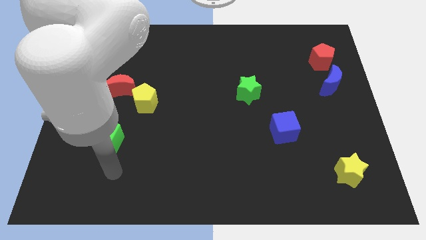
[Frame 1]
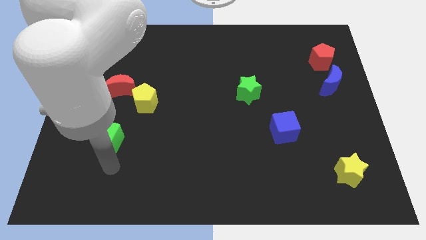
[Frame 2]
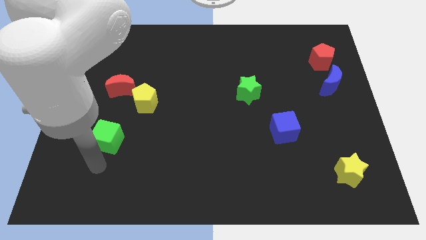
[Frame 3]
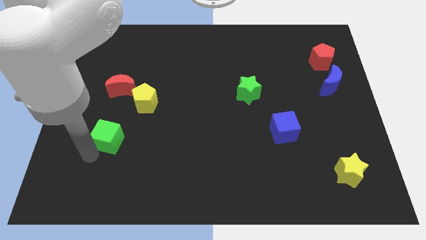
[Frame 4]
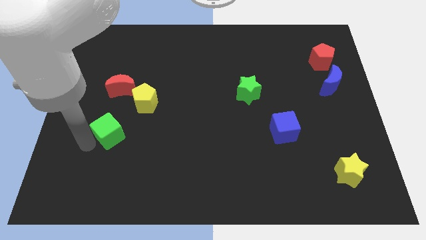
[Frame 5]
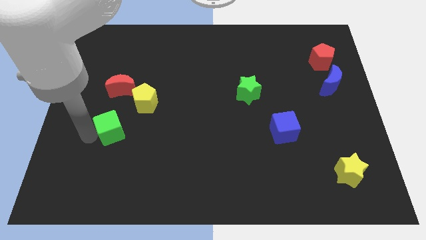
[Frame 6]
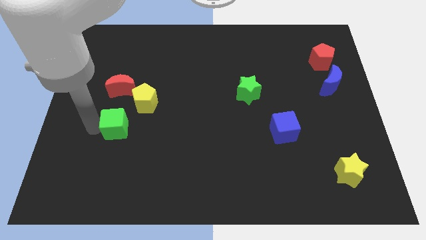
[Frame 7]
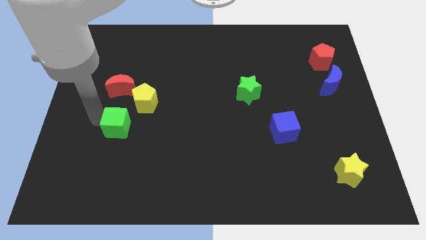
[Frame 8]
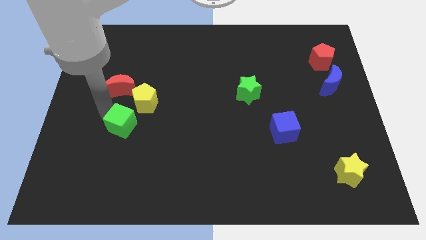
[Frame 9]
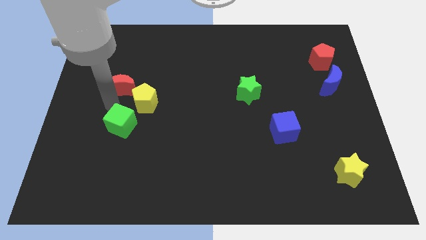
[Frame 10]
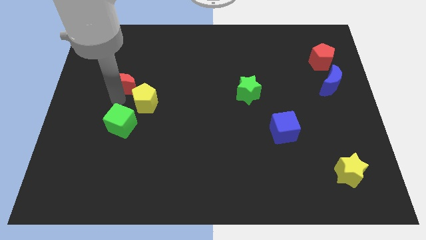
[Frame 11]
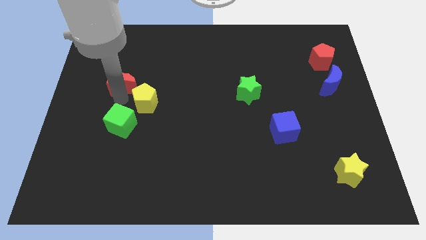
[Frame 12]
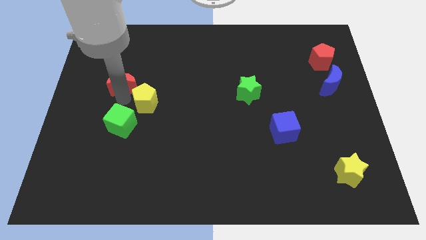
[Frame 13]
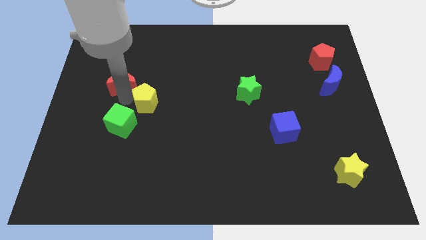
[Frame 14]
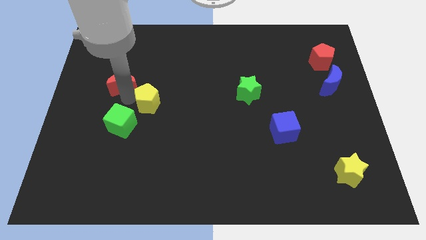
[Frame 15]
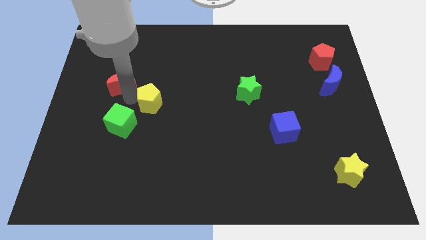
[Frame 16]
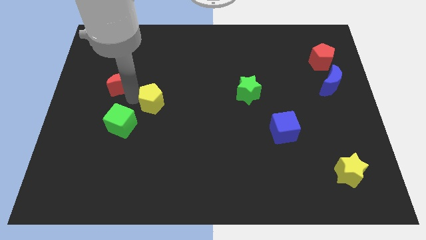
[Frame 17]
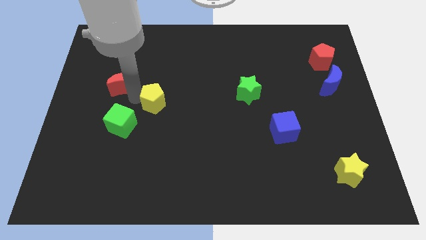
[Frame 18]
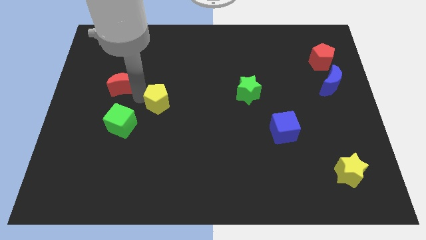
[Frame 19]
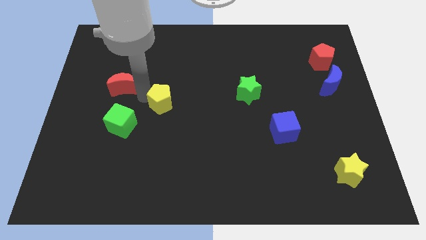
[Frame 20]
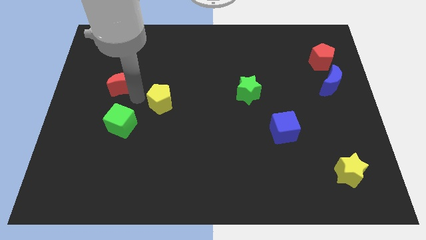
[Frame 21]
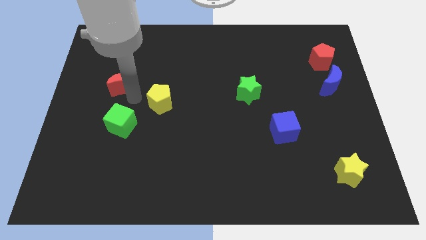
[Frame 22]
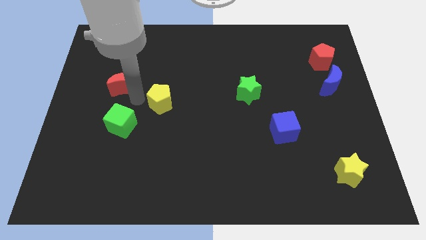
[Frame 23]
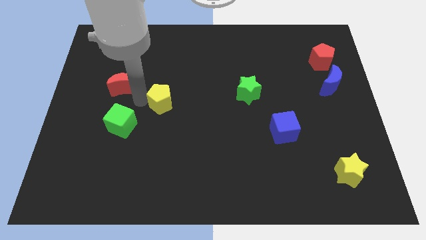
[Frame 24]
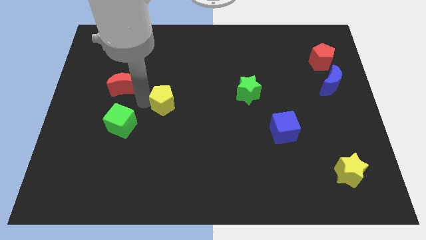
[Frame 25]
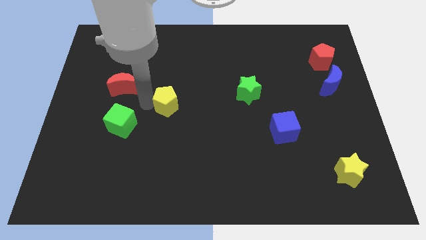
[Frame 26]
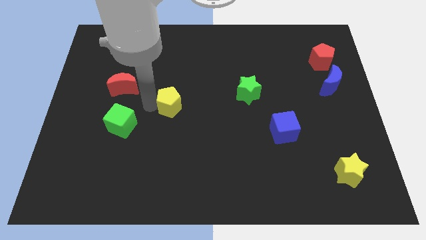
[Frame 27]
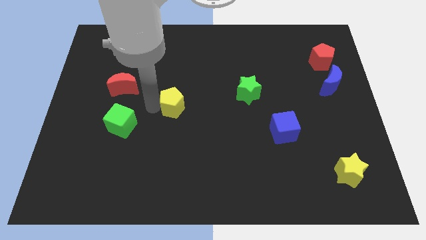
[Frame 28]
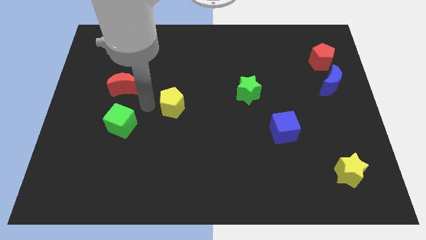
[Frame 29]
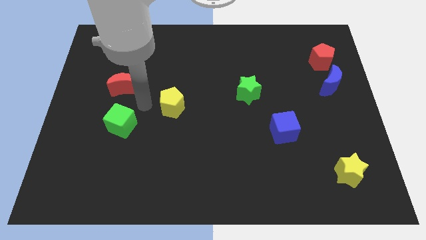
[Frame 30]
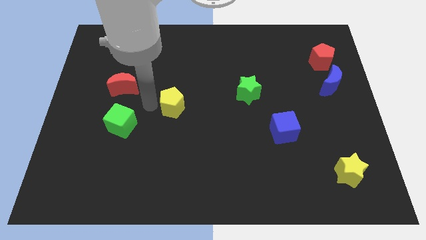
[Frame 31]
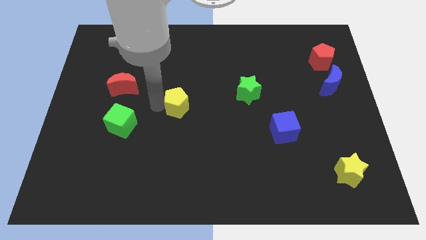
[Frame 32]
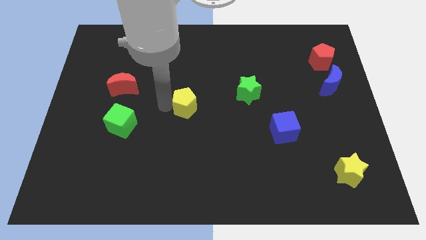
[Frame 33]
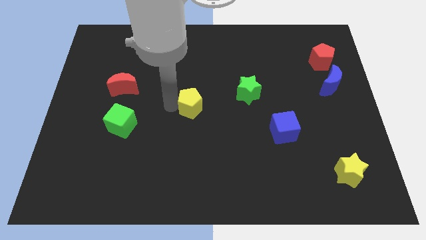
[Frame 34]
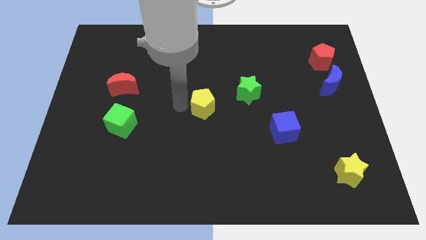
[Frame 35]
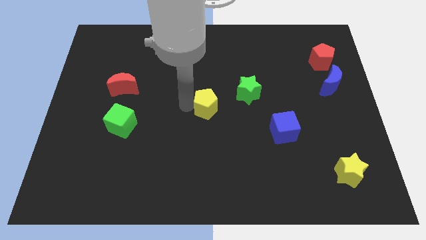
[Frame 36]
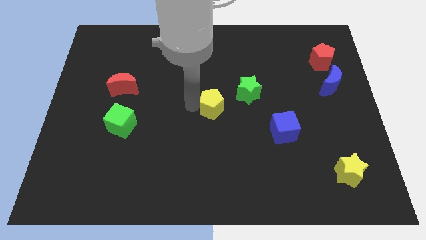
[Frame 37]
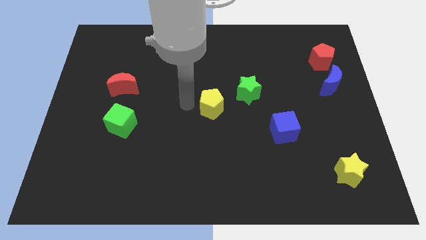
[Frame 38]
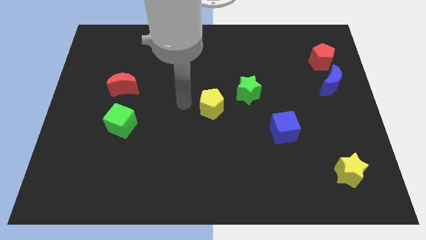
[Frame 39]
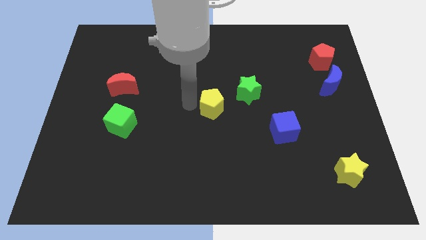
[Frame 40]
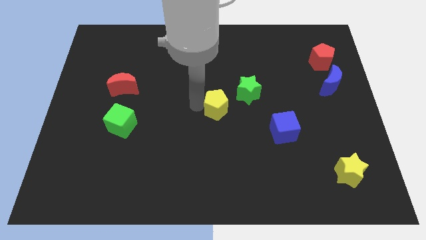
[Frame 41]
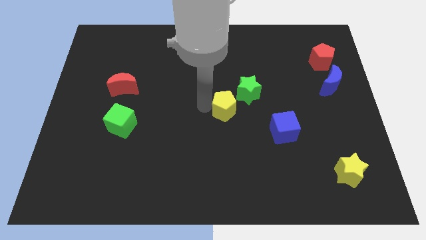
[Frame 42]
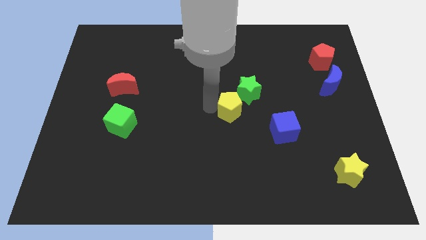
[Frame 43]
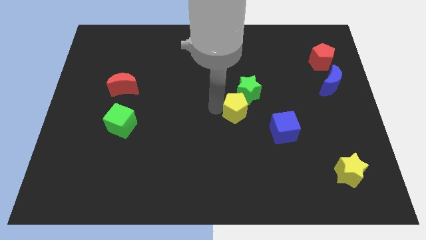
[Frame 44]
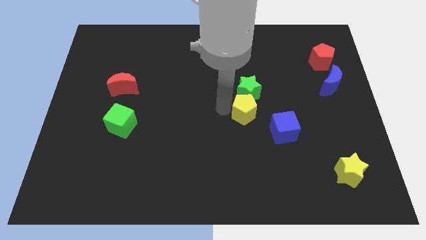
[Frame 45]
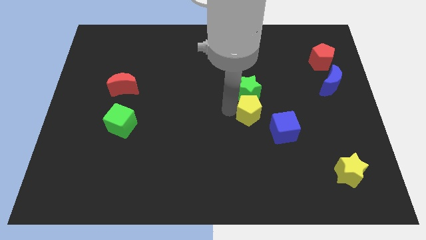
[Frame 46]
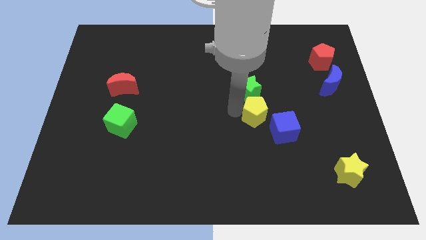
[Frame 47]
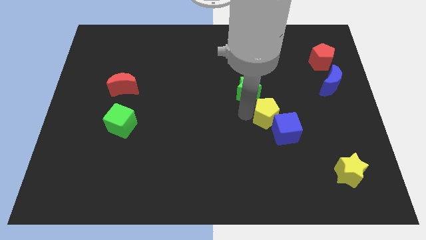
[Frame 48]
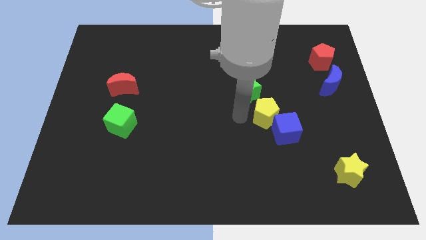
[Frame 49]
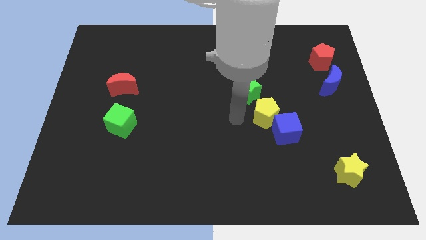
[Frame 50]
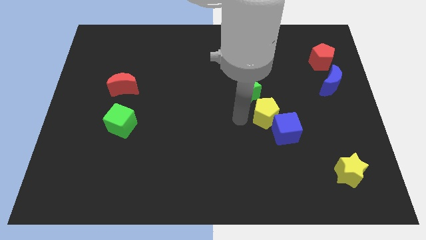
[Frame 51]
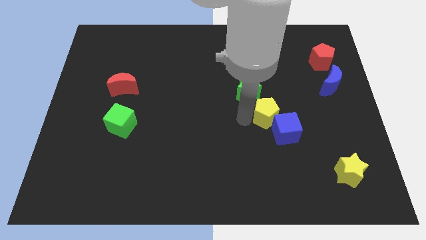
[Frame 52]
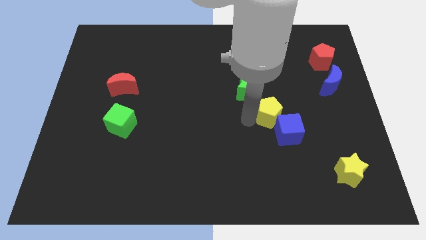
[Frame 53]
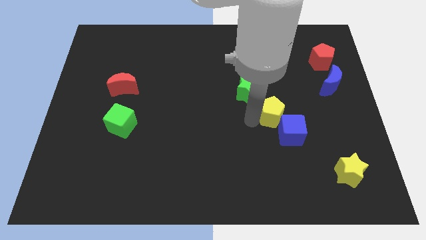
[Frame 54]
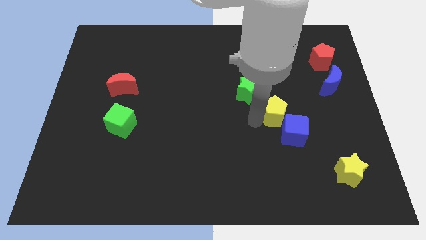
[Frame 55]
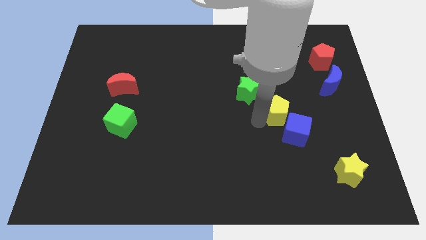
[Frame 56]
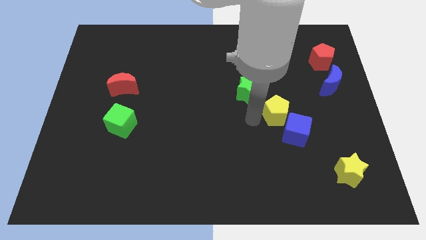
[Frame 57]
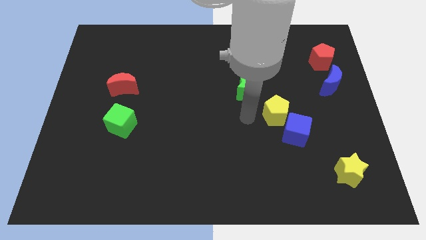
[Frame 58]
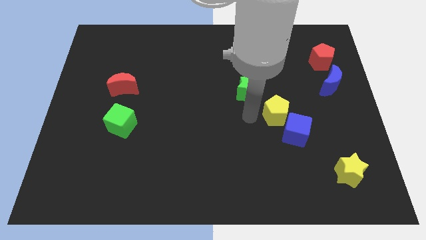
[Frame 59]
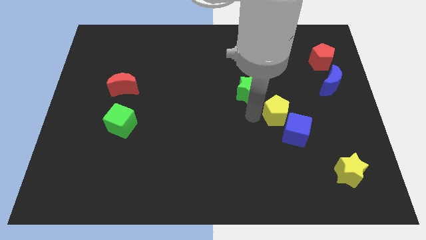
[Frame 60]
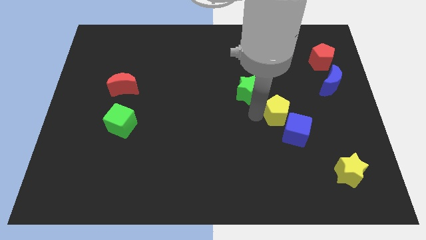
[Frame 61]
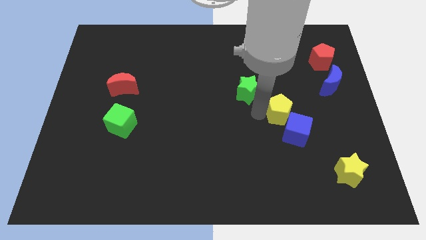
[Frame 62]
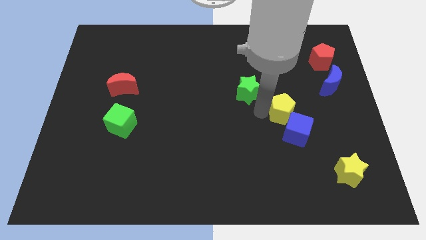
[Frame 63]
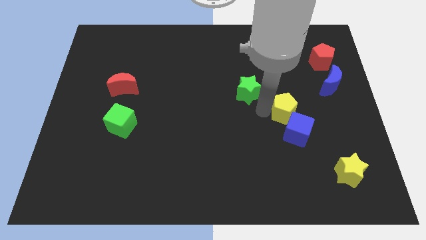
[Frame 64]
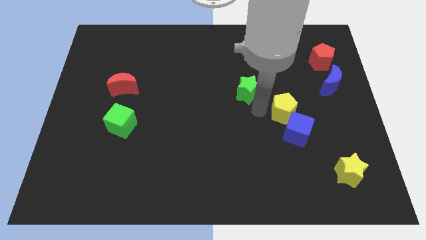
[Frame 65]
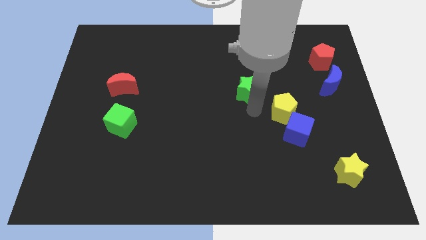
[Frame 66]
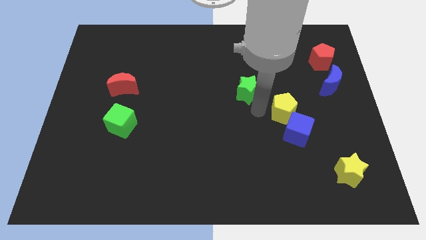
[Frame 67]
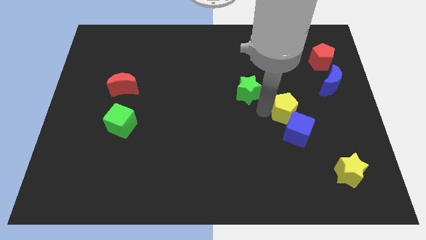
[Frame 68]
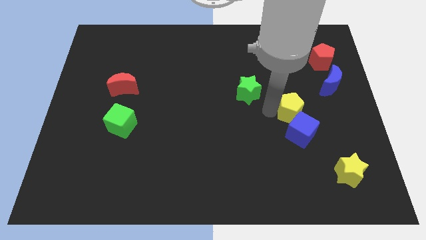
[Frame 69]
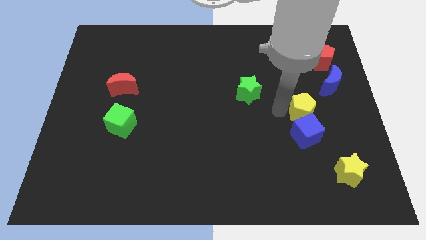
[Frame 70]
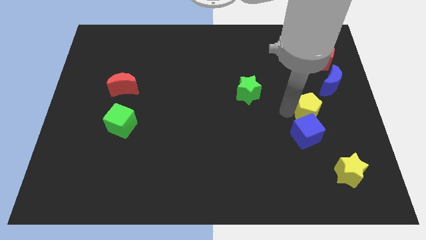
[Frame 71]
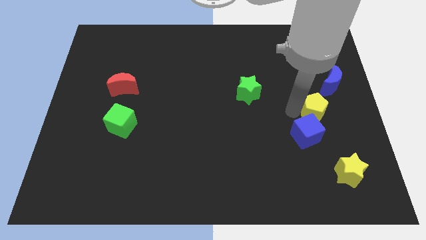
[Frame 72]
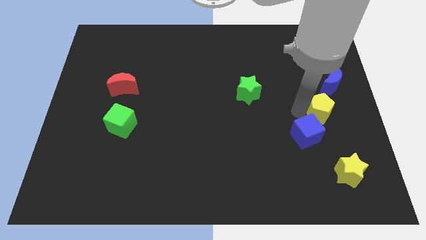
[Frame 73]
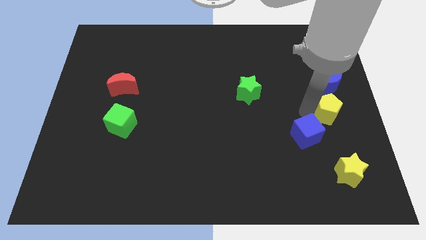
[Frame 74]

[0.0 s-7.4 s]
put the yellow pentagon to the right side of the board
